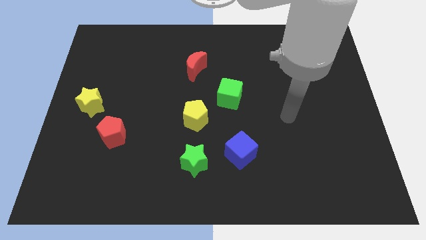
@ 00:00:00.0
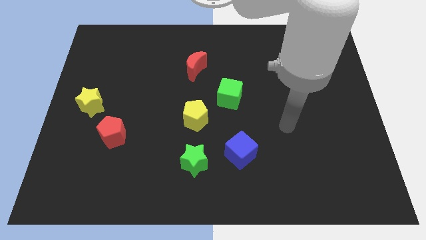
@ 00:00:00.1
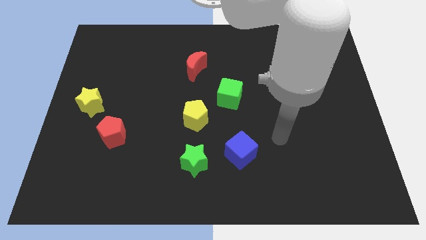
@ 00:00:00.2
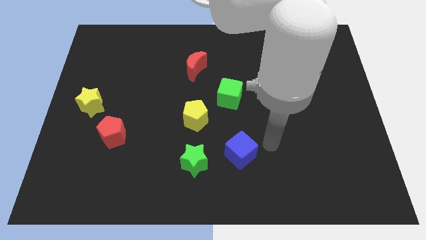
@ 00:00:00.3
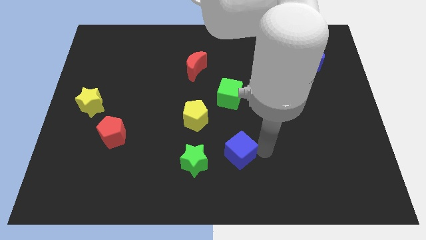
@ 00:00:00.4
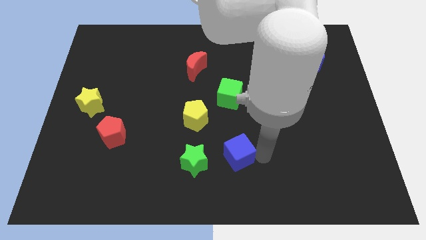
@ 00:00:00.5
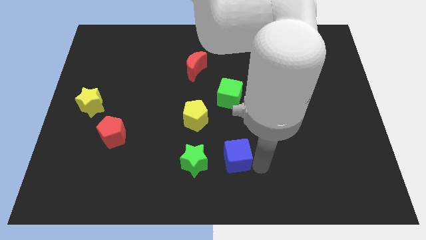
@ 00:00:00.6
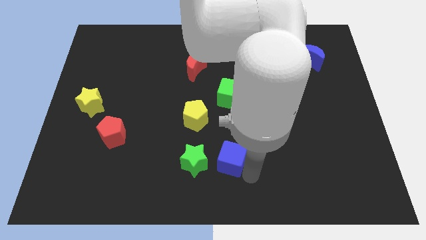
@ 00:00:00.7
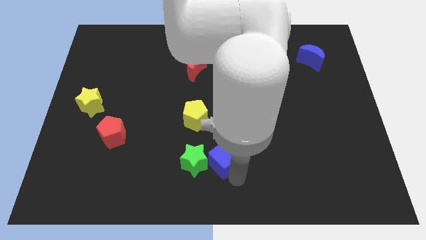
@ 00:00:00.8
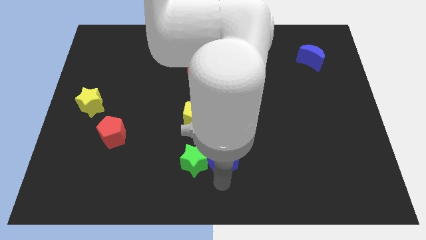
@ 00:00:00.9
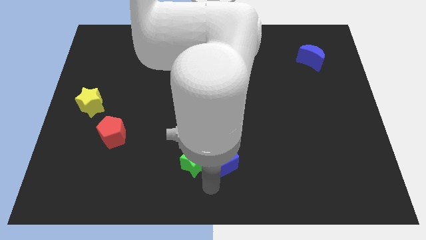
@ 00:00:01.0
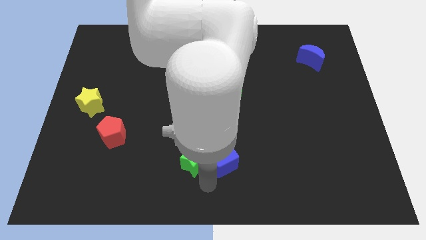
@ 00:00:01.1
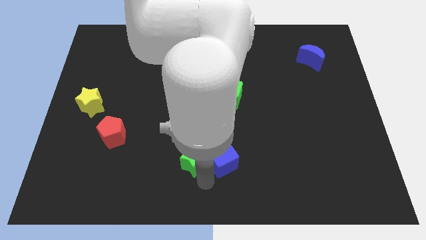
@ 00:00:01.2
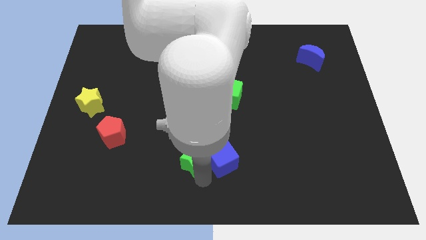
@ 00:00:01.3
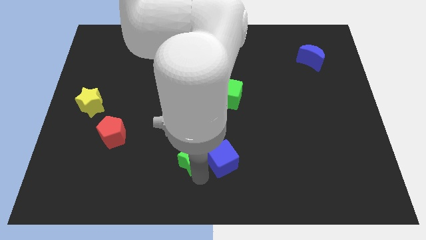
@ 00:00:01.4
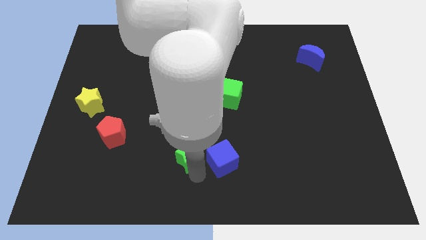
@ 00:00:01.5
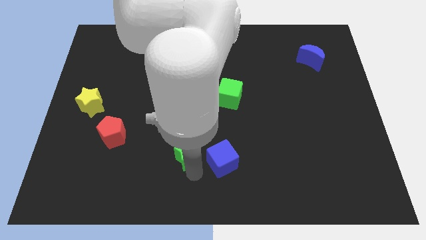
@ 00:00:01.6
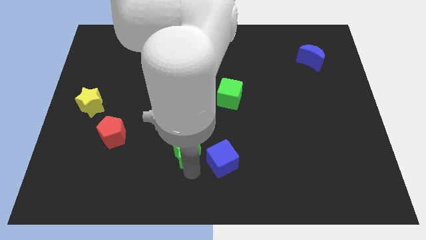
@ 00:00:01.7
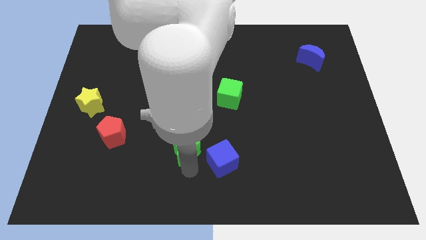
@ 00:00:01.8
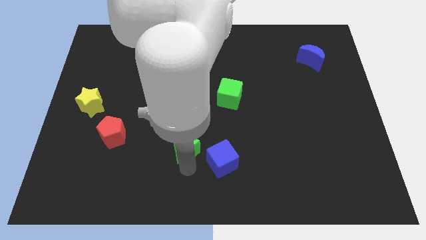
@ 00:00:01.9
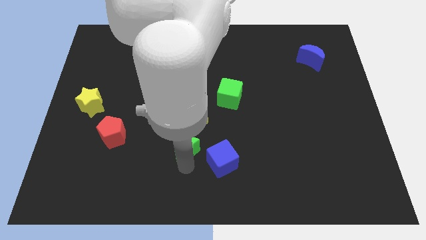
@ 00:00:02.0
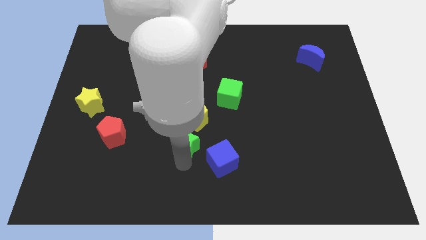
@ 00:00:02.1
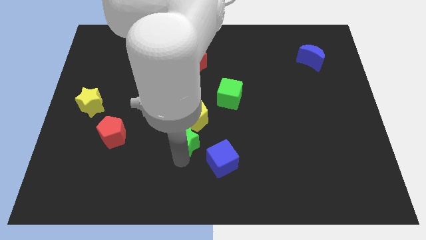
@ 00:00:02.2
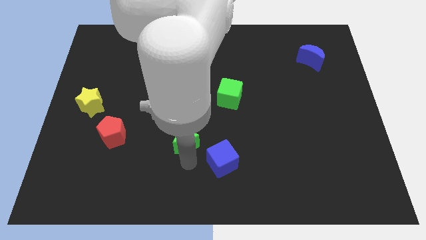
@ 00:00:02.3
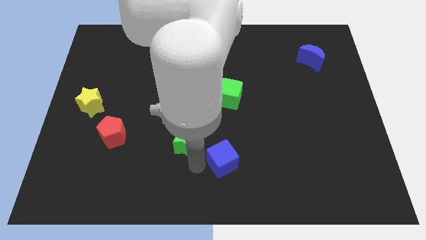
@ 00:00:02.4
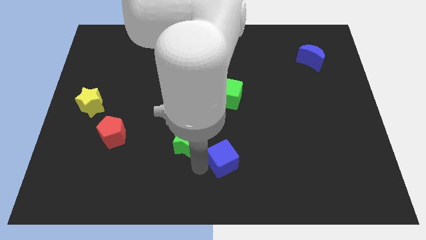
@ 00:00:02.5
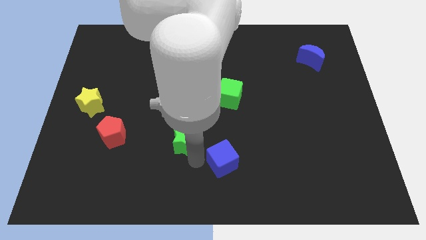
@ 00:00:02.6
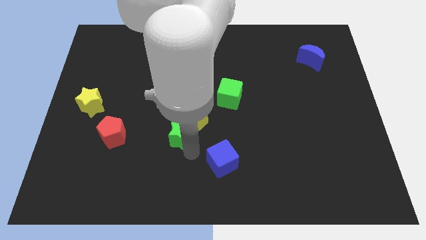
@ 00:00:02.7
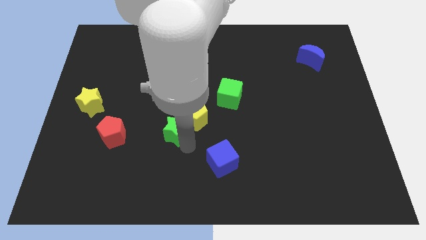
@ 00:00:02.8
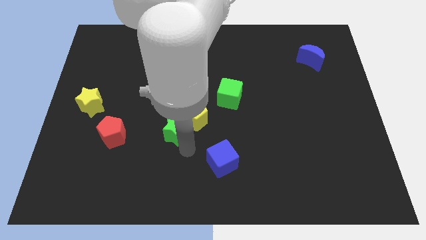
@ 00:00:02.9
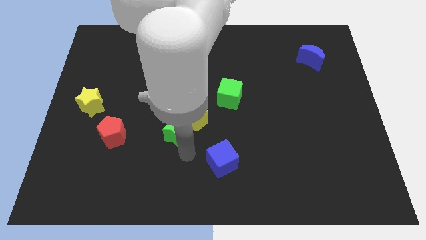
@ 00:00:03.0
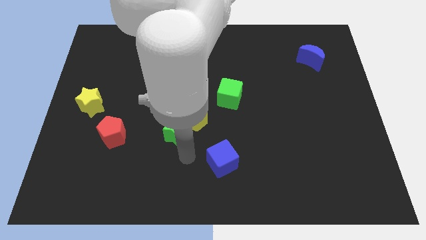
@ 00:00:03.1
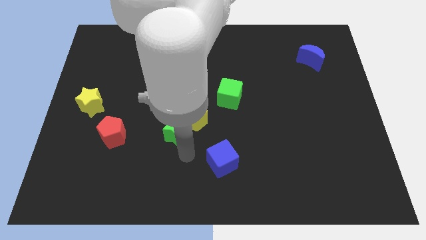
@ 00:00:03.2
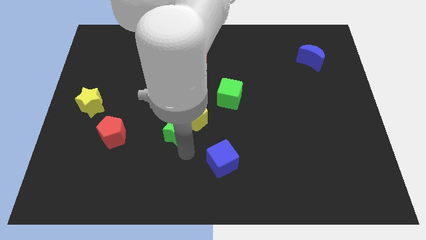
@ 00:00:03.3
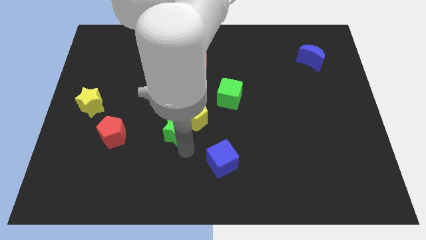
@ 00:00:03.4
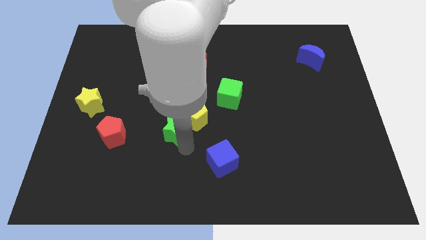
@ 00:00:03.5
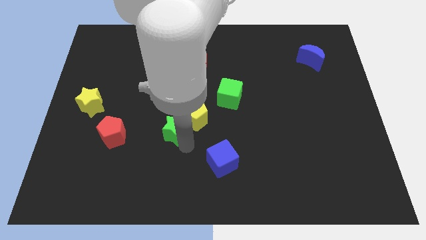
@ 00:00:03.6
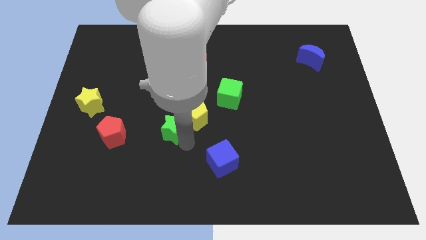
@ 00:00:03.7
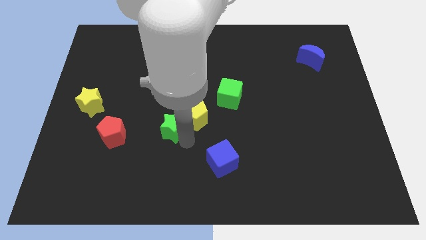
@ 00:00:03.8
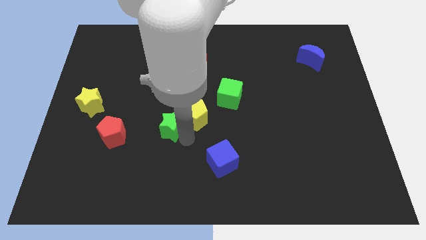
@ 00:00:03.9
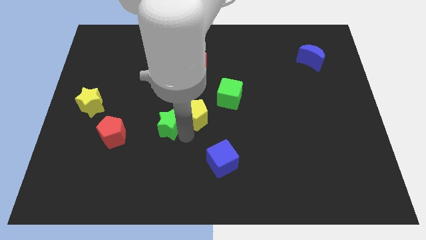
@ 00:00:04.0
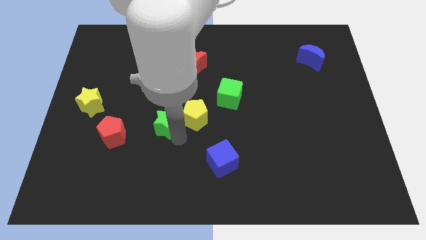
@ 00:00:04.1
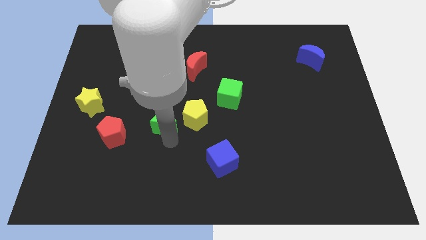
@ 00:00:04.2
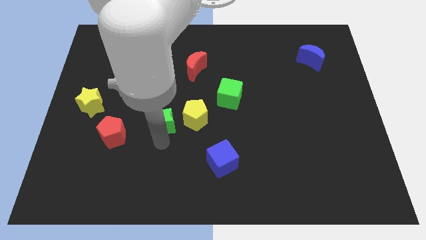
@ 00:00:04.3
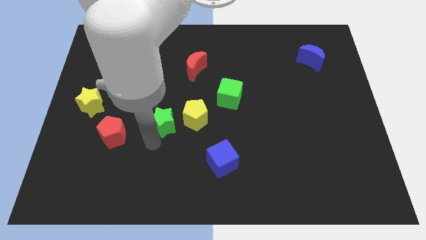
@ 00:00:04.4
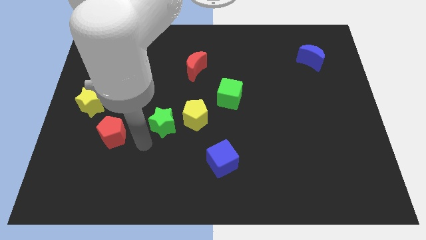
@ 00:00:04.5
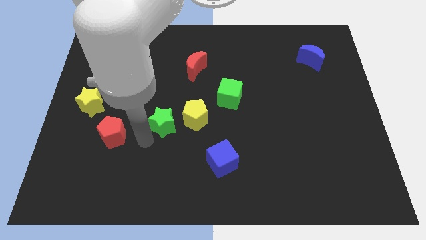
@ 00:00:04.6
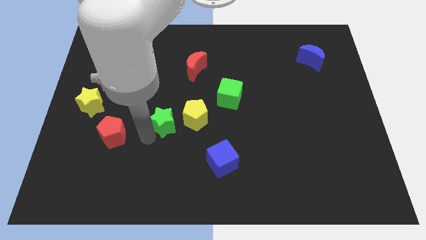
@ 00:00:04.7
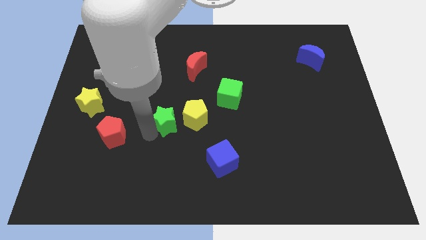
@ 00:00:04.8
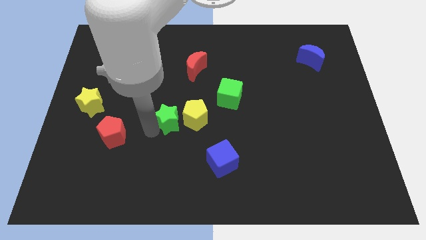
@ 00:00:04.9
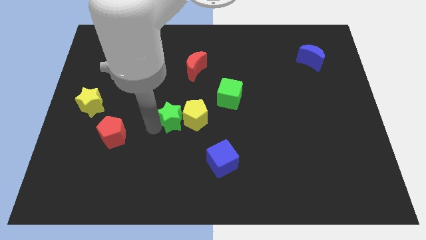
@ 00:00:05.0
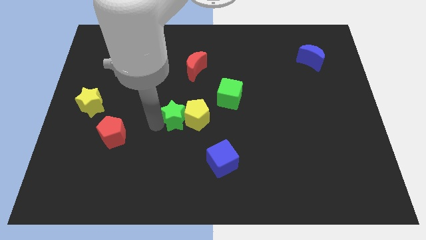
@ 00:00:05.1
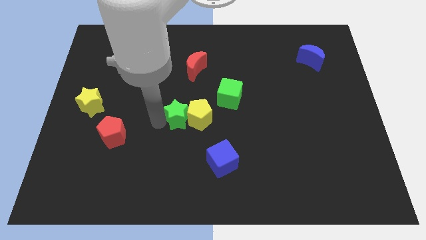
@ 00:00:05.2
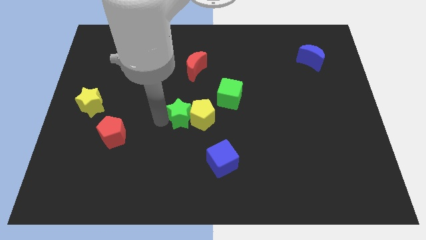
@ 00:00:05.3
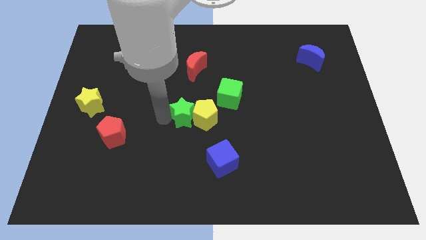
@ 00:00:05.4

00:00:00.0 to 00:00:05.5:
put the green star to the bottom side of the red moon

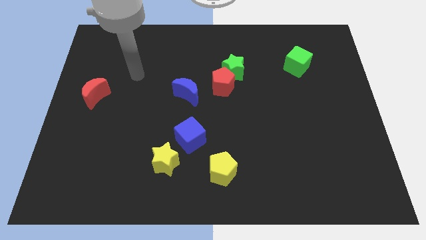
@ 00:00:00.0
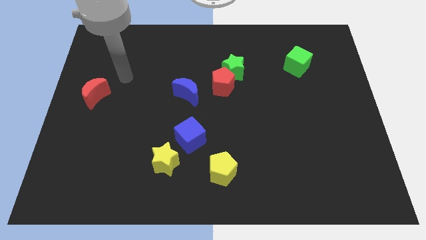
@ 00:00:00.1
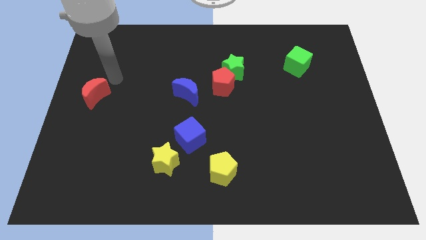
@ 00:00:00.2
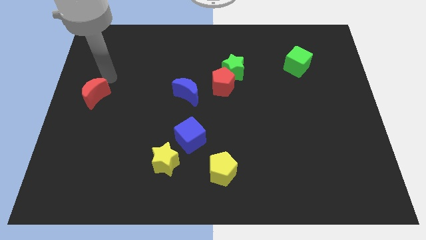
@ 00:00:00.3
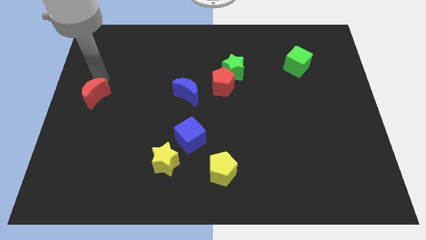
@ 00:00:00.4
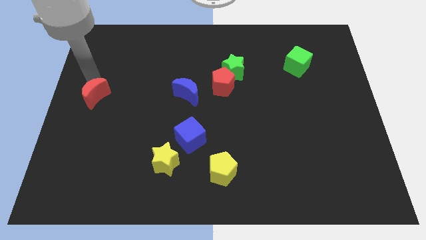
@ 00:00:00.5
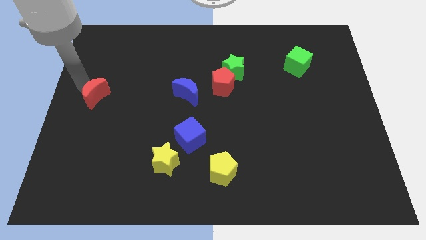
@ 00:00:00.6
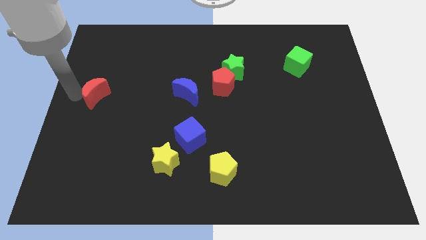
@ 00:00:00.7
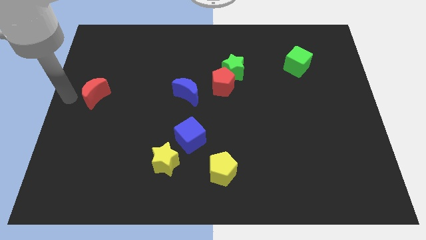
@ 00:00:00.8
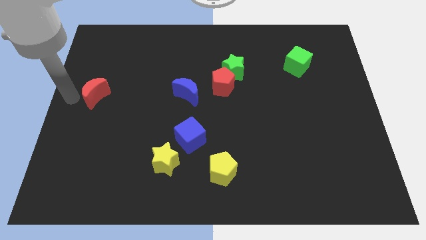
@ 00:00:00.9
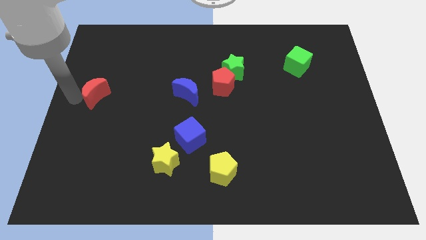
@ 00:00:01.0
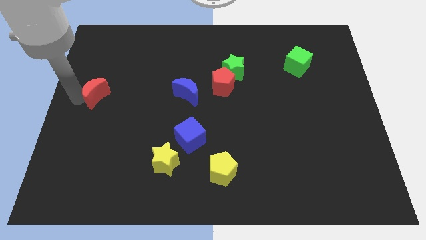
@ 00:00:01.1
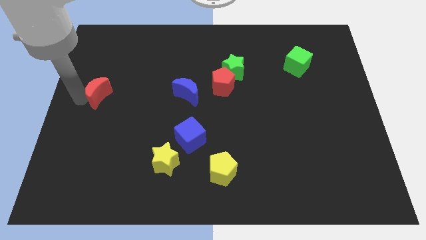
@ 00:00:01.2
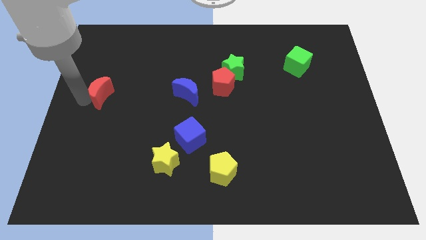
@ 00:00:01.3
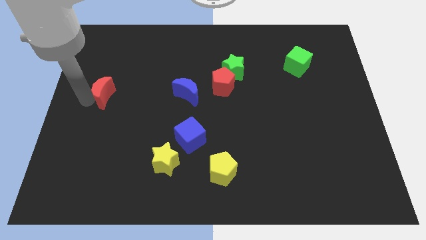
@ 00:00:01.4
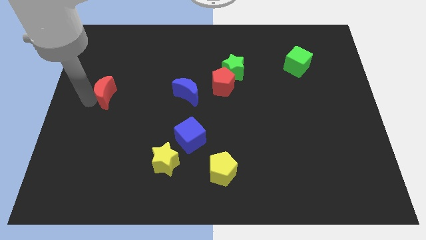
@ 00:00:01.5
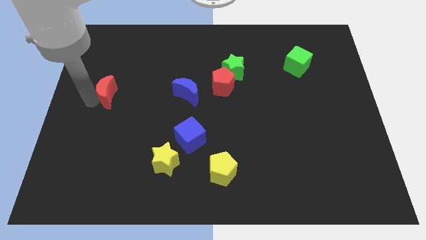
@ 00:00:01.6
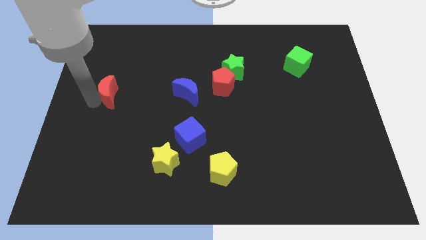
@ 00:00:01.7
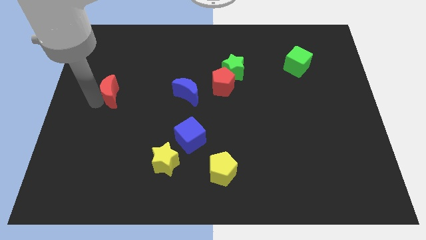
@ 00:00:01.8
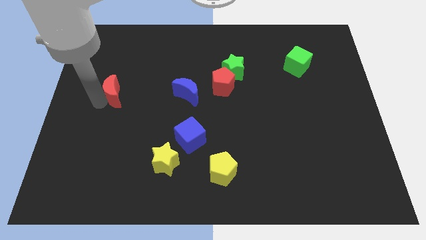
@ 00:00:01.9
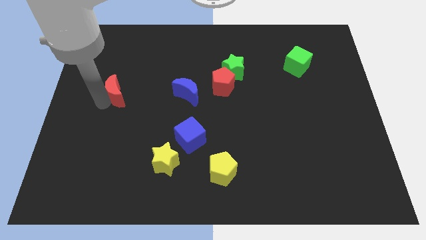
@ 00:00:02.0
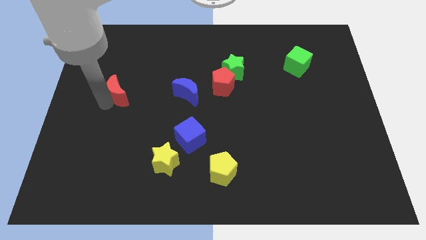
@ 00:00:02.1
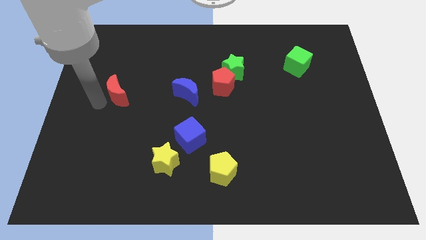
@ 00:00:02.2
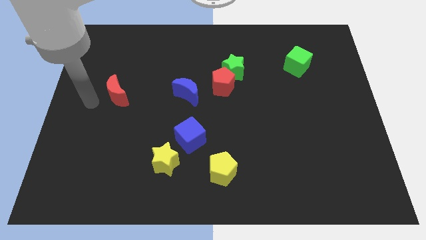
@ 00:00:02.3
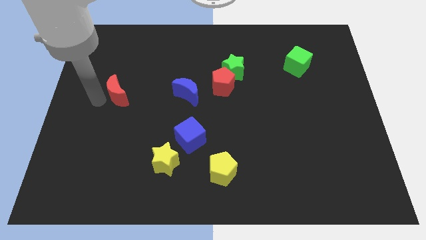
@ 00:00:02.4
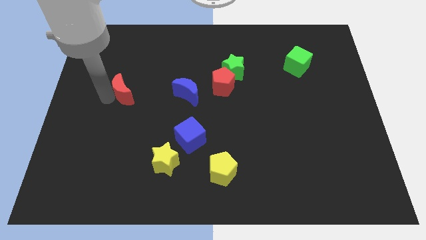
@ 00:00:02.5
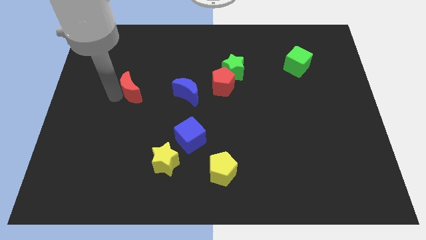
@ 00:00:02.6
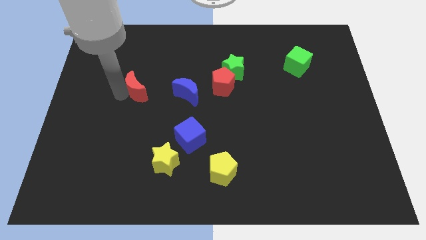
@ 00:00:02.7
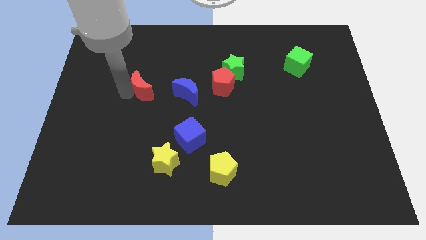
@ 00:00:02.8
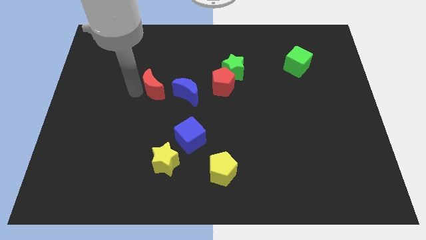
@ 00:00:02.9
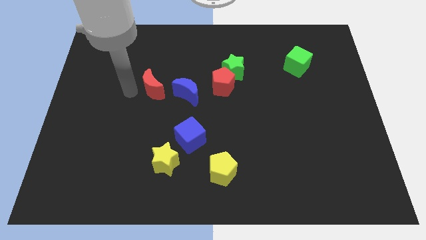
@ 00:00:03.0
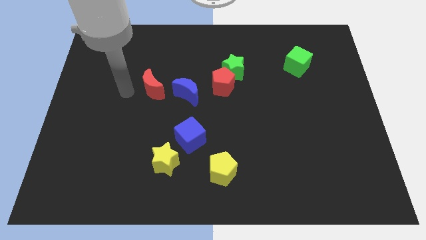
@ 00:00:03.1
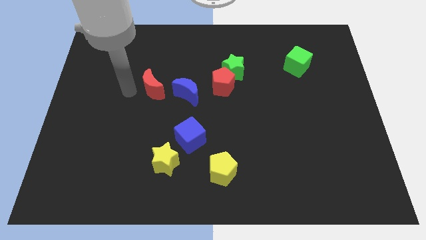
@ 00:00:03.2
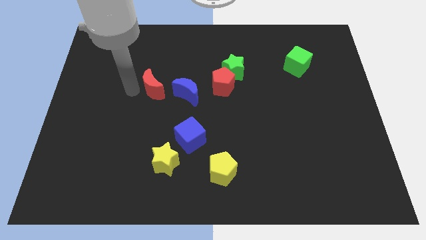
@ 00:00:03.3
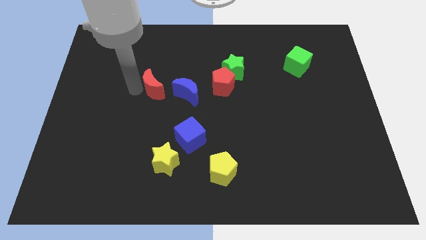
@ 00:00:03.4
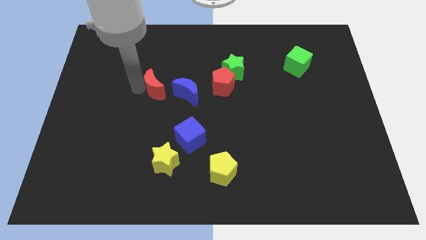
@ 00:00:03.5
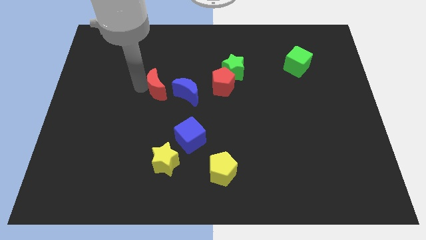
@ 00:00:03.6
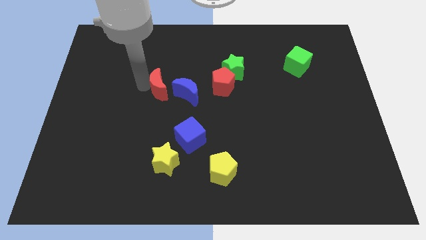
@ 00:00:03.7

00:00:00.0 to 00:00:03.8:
put the red moon to the left side of the red pentagon
